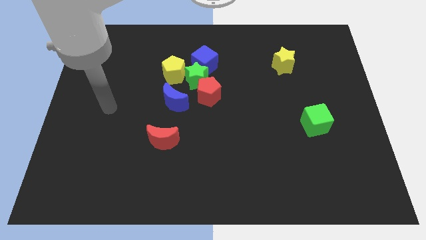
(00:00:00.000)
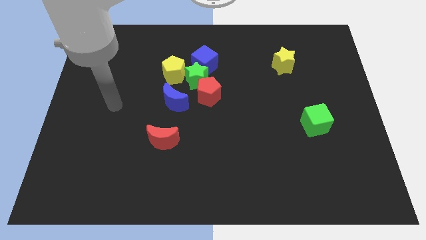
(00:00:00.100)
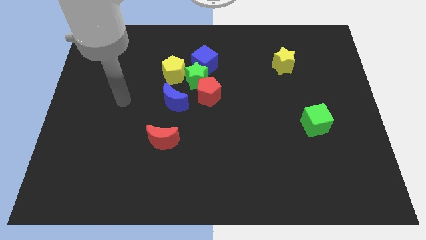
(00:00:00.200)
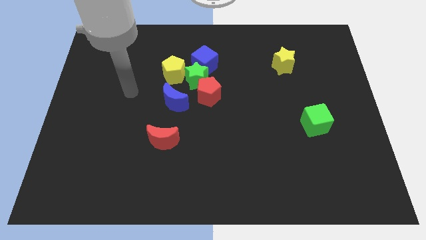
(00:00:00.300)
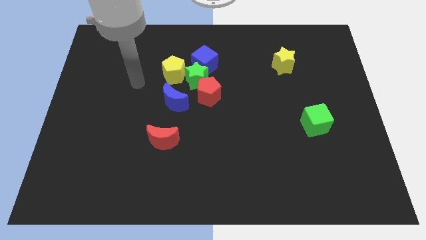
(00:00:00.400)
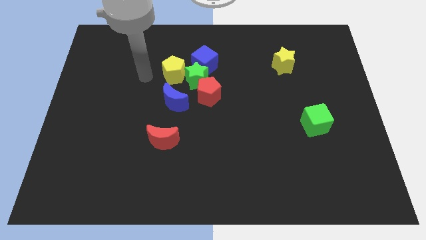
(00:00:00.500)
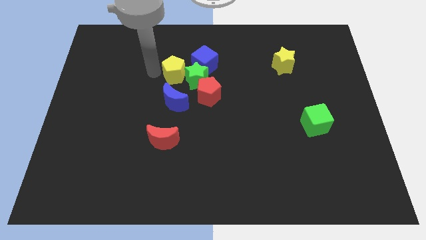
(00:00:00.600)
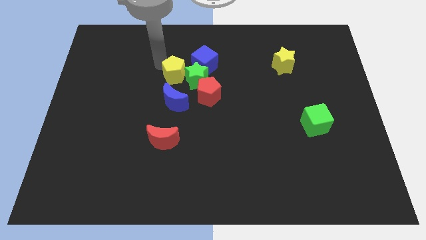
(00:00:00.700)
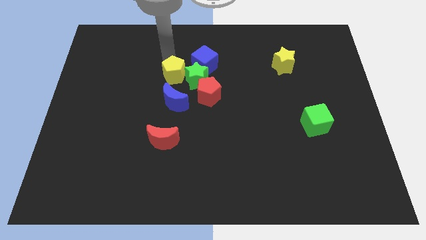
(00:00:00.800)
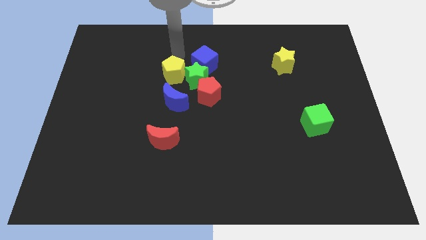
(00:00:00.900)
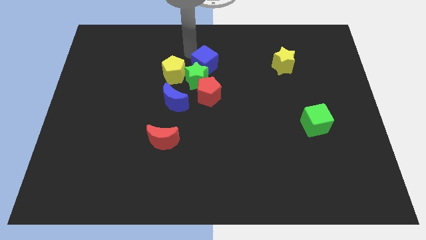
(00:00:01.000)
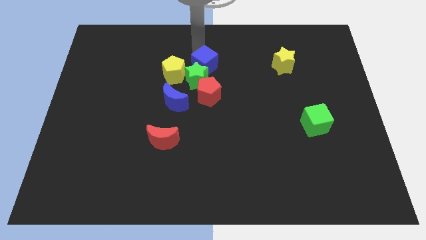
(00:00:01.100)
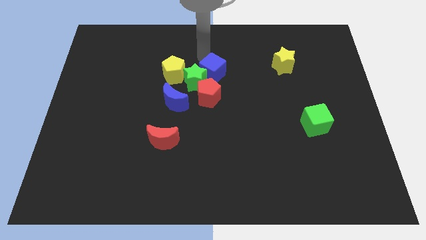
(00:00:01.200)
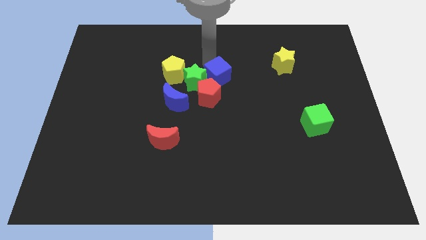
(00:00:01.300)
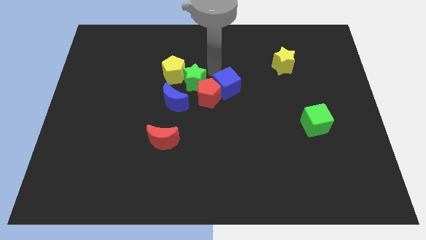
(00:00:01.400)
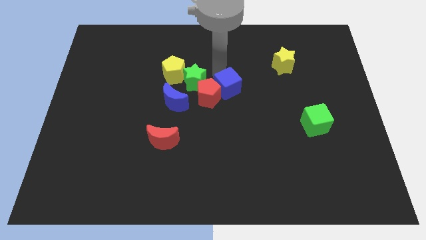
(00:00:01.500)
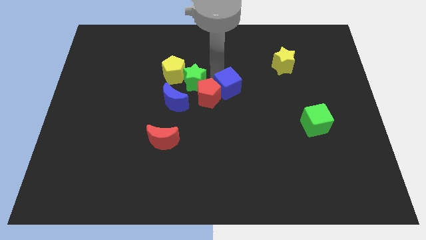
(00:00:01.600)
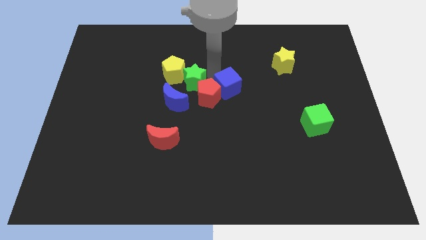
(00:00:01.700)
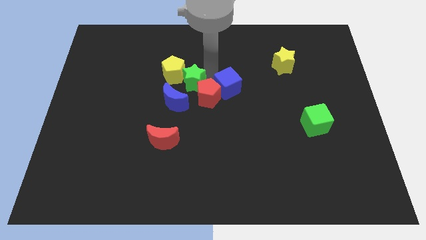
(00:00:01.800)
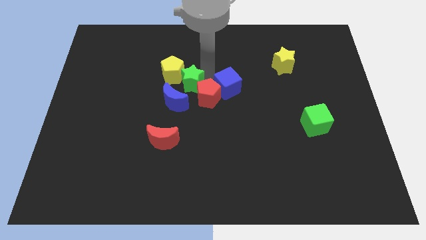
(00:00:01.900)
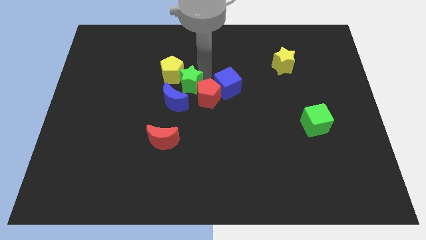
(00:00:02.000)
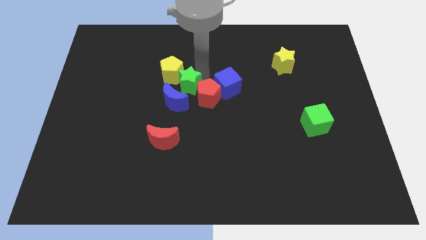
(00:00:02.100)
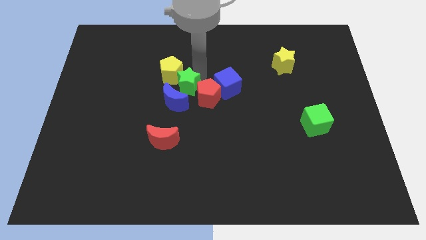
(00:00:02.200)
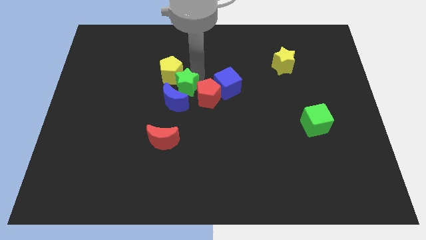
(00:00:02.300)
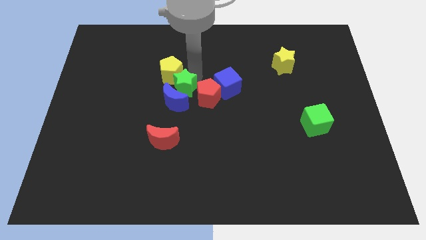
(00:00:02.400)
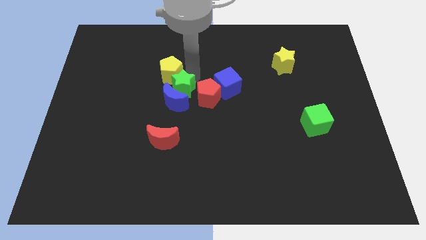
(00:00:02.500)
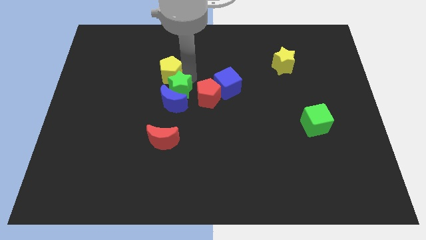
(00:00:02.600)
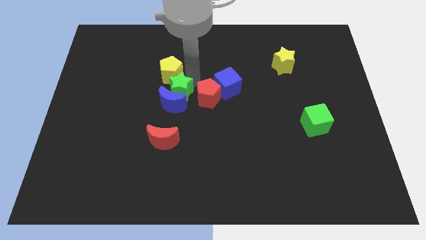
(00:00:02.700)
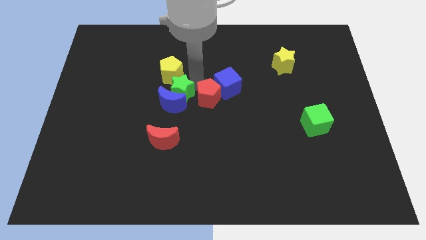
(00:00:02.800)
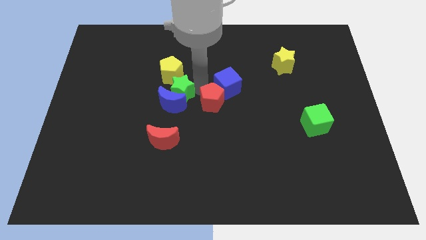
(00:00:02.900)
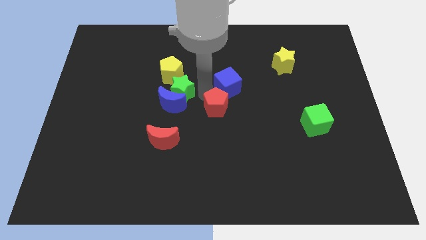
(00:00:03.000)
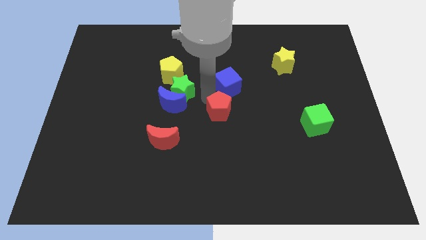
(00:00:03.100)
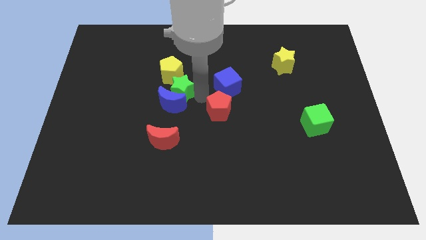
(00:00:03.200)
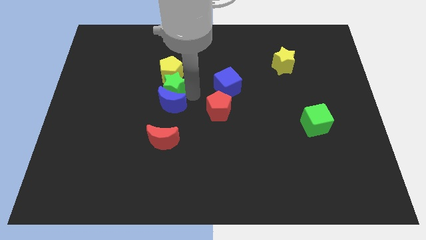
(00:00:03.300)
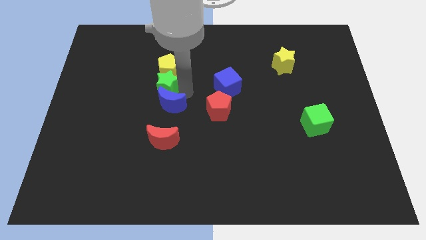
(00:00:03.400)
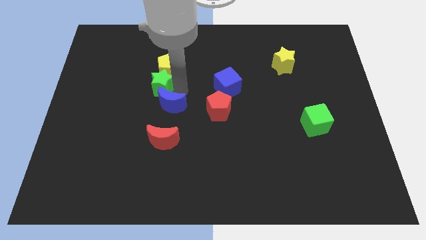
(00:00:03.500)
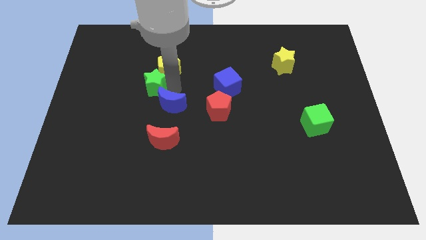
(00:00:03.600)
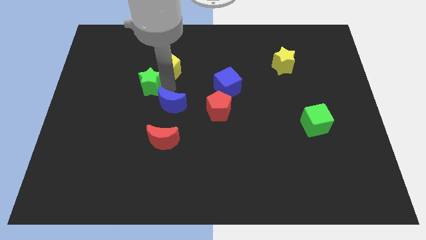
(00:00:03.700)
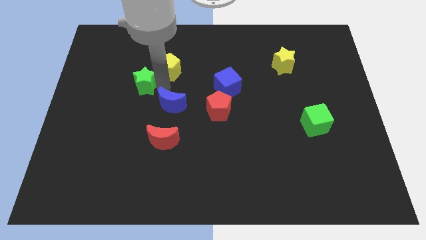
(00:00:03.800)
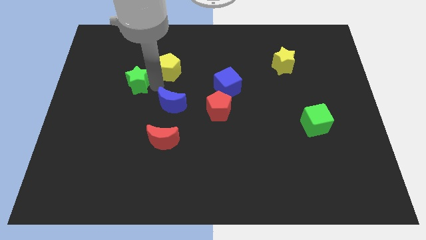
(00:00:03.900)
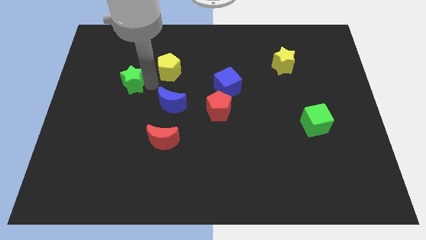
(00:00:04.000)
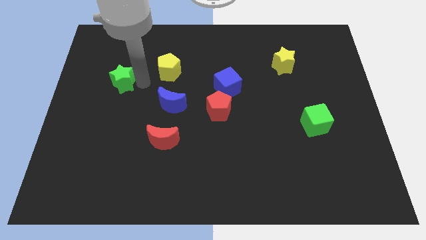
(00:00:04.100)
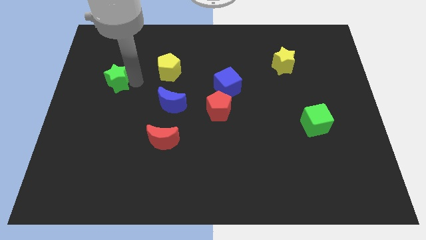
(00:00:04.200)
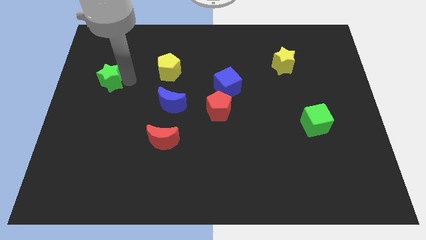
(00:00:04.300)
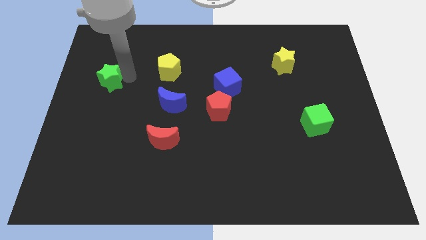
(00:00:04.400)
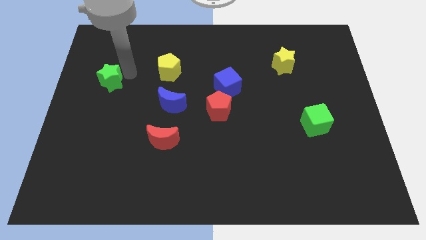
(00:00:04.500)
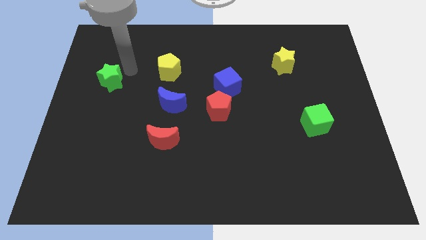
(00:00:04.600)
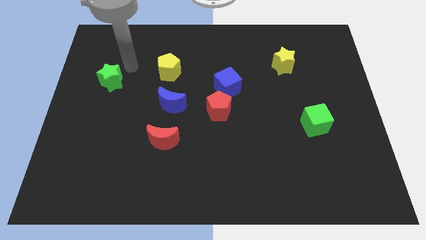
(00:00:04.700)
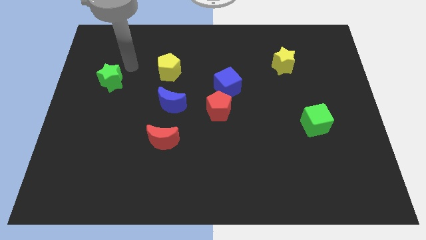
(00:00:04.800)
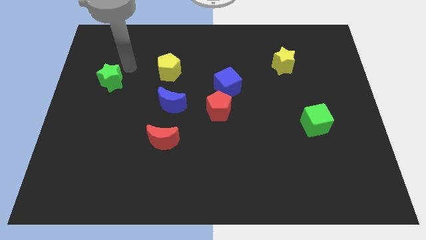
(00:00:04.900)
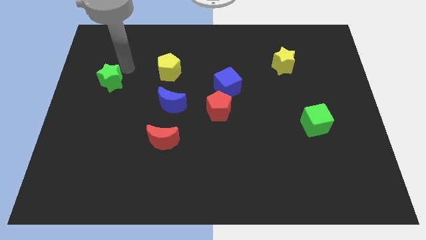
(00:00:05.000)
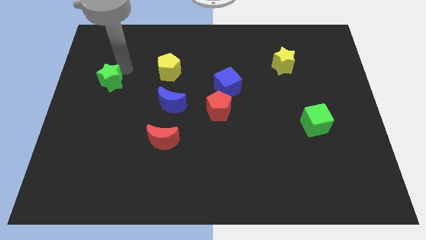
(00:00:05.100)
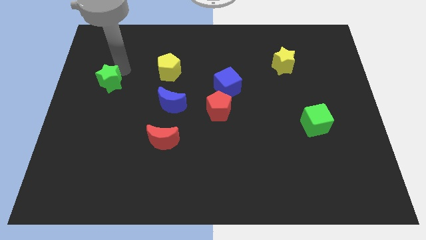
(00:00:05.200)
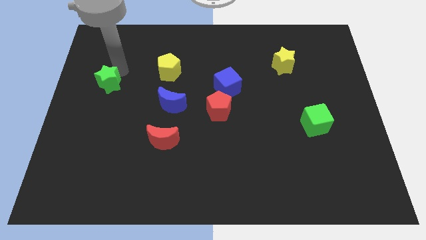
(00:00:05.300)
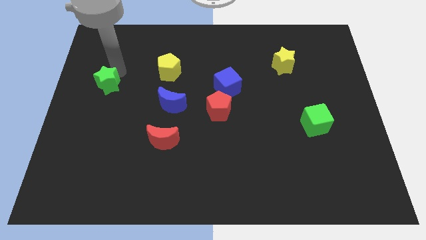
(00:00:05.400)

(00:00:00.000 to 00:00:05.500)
push the green star to the center left

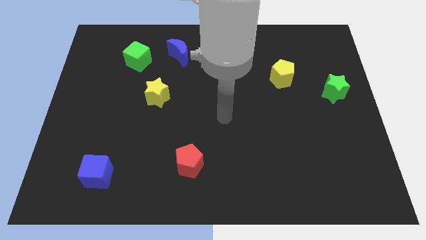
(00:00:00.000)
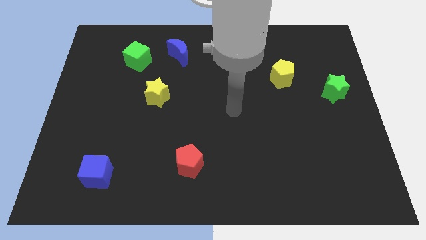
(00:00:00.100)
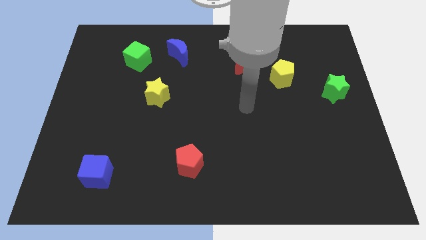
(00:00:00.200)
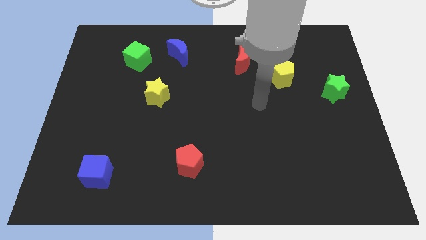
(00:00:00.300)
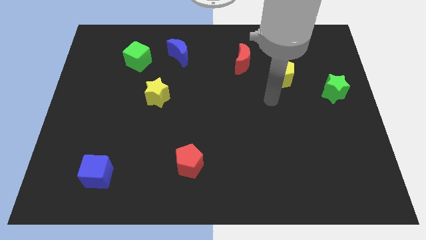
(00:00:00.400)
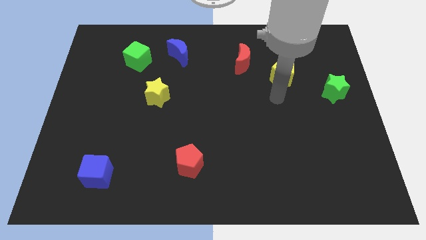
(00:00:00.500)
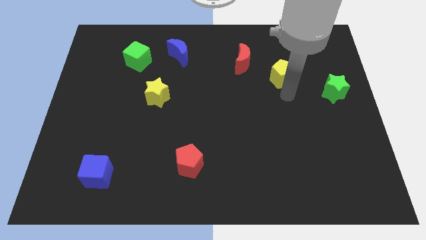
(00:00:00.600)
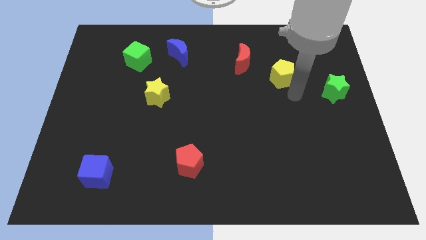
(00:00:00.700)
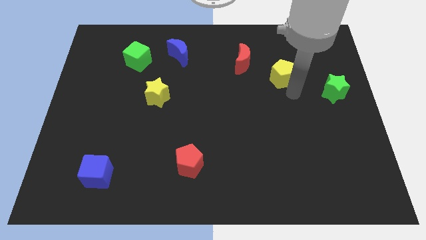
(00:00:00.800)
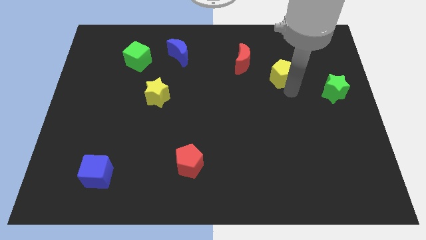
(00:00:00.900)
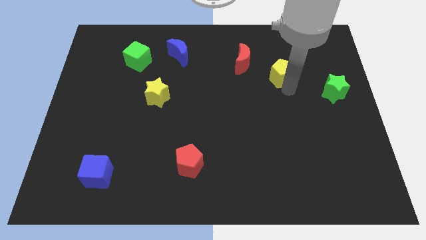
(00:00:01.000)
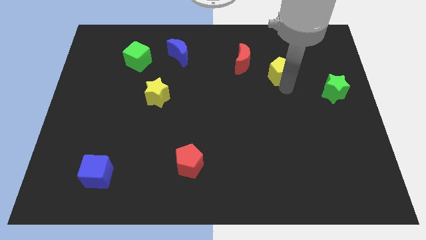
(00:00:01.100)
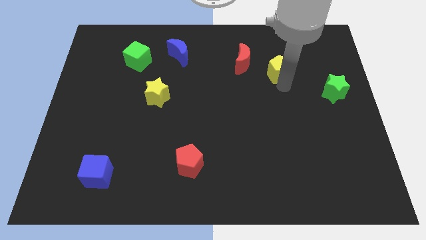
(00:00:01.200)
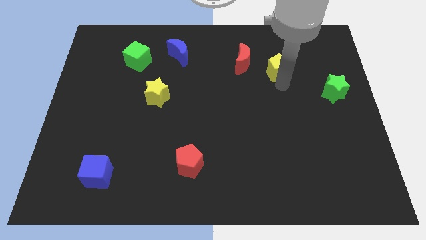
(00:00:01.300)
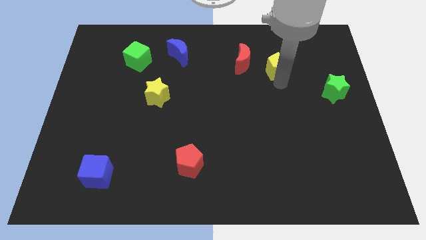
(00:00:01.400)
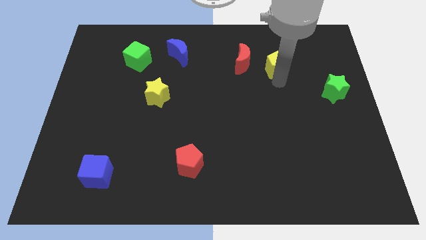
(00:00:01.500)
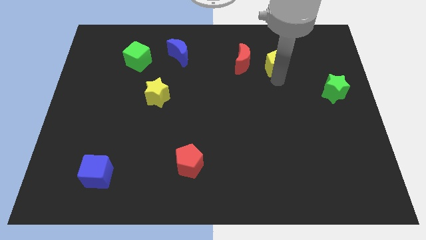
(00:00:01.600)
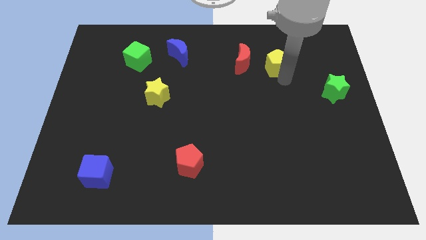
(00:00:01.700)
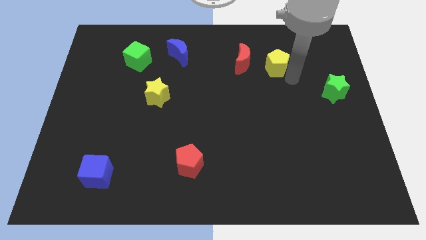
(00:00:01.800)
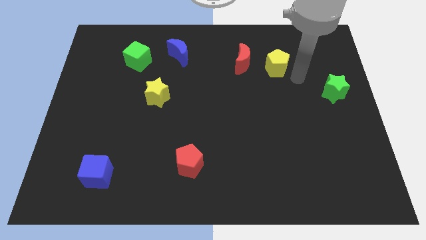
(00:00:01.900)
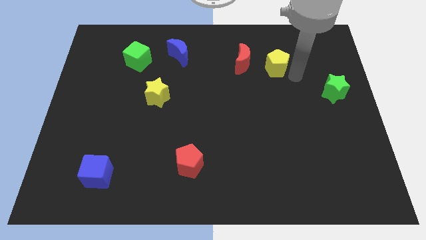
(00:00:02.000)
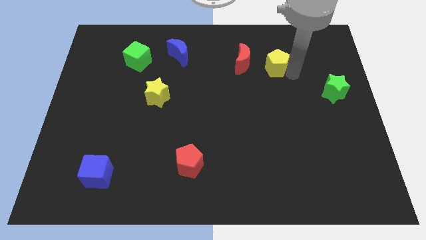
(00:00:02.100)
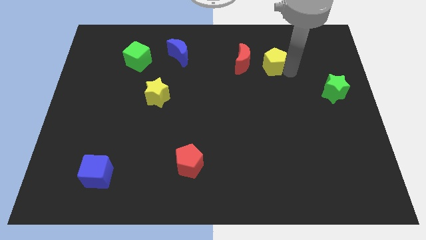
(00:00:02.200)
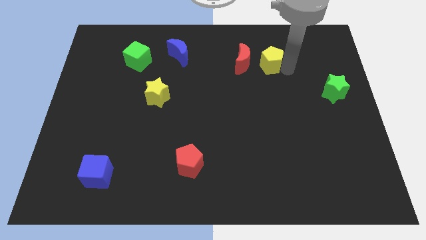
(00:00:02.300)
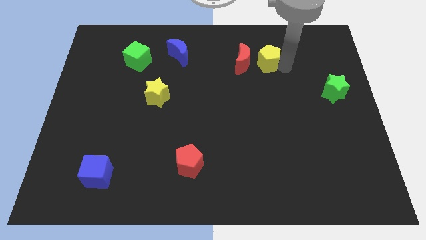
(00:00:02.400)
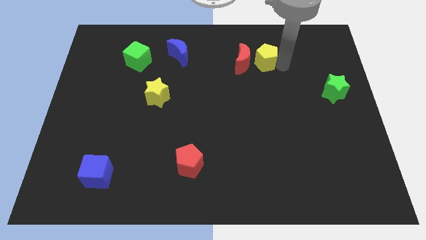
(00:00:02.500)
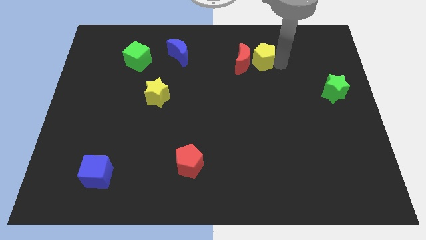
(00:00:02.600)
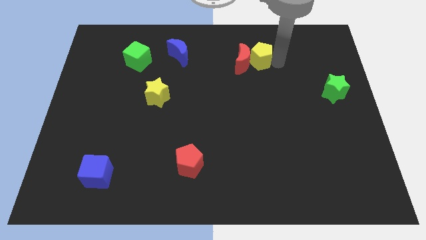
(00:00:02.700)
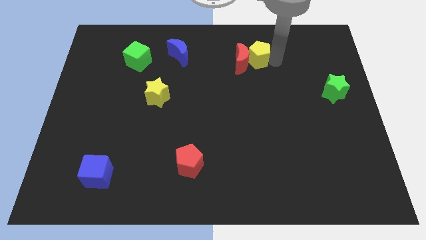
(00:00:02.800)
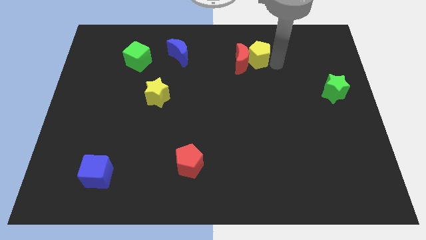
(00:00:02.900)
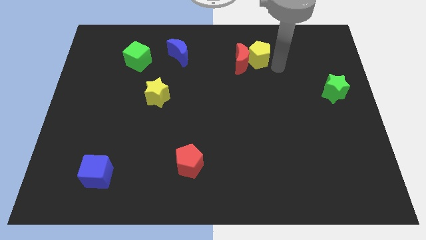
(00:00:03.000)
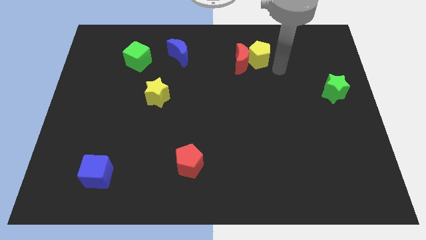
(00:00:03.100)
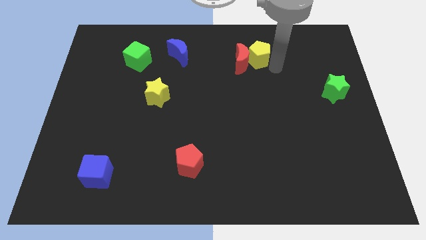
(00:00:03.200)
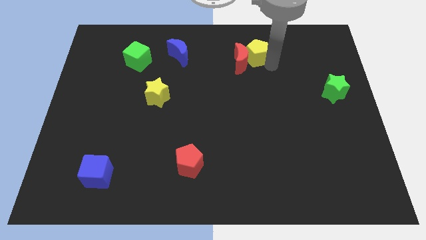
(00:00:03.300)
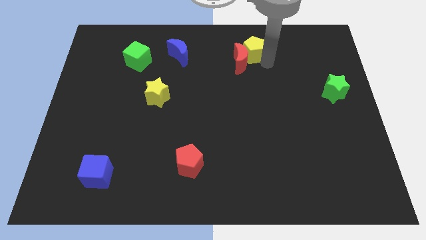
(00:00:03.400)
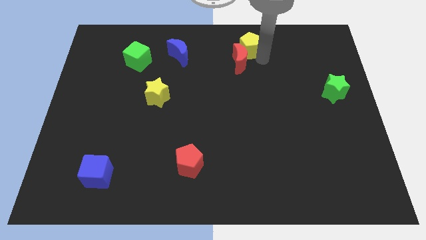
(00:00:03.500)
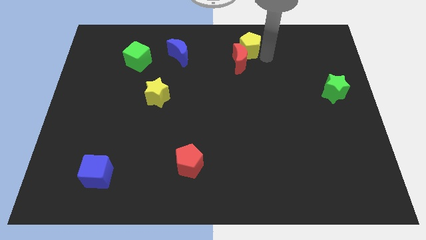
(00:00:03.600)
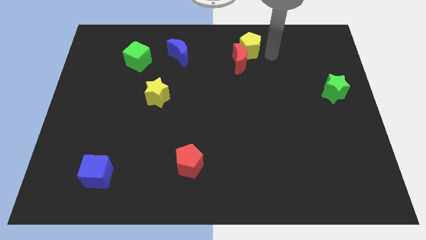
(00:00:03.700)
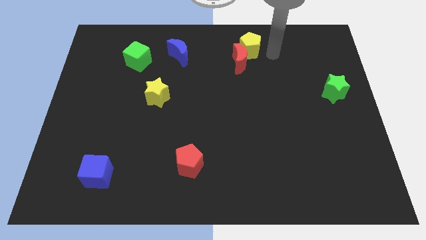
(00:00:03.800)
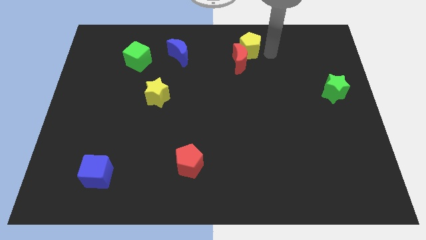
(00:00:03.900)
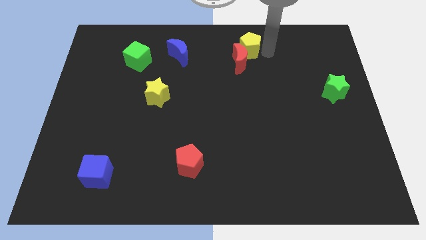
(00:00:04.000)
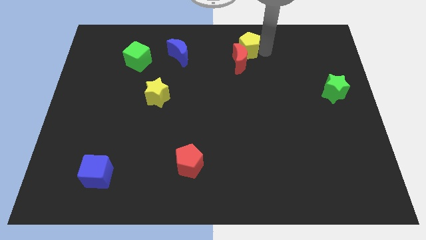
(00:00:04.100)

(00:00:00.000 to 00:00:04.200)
push the yellow pentagon to the towards your base
